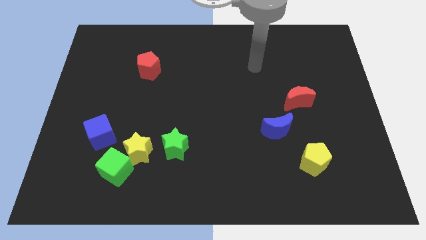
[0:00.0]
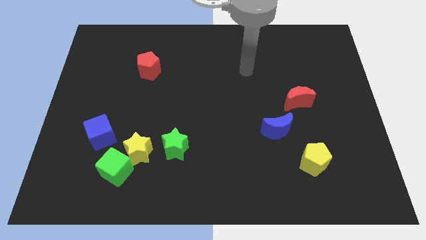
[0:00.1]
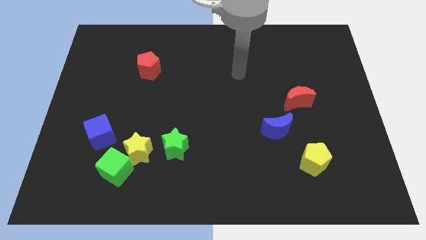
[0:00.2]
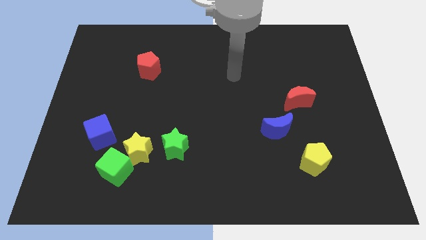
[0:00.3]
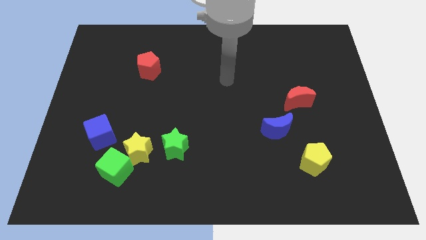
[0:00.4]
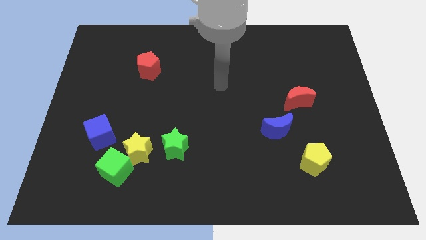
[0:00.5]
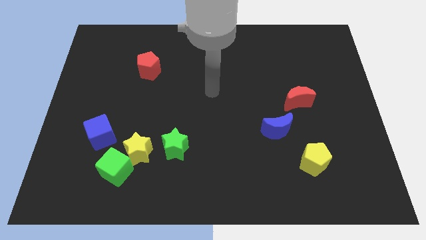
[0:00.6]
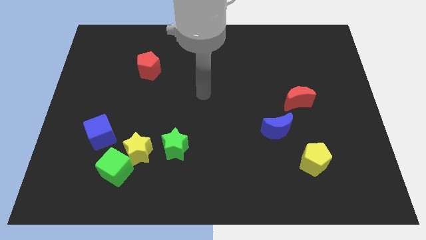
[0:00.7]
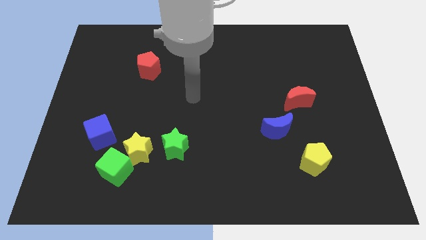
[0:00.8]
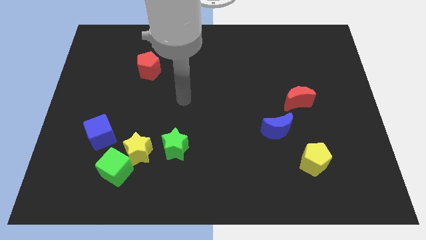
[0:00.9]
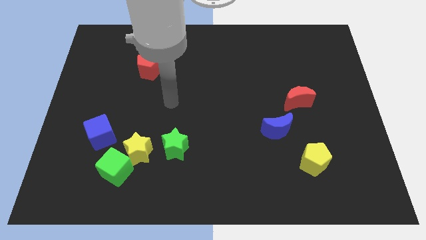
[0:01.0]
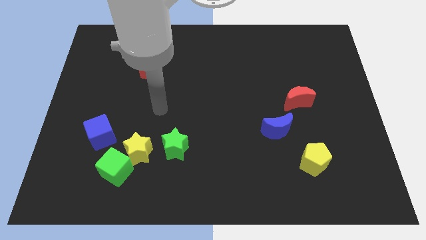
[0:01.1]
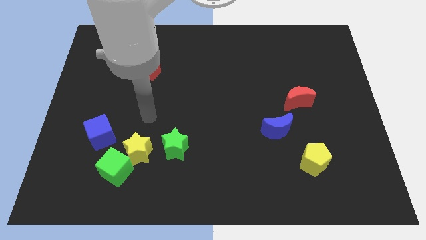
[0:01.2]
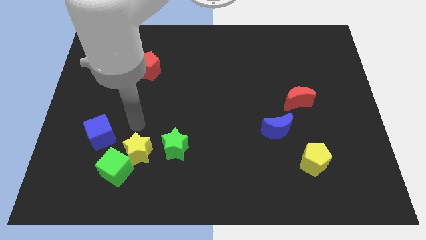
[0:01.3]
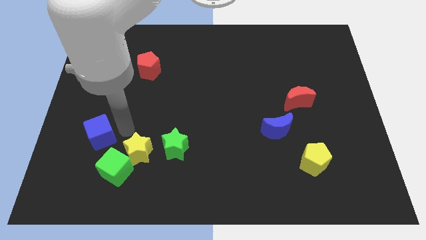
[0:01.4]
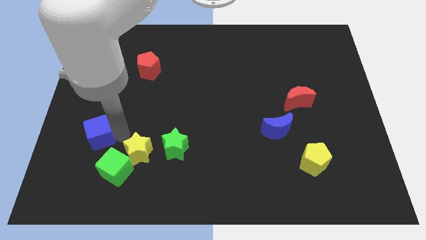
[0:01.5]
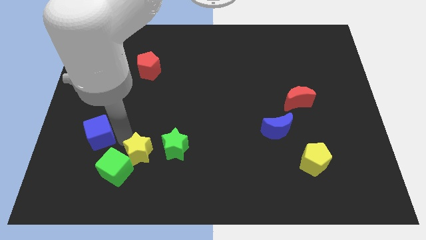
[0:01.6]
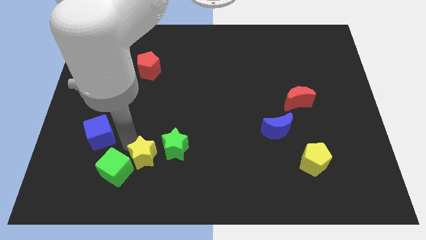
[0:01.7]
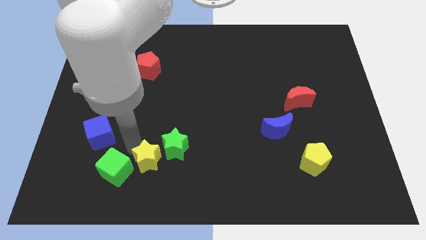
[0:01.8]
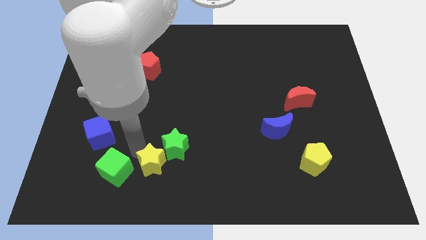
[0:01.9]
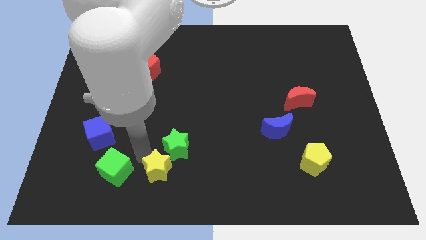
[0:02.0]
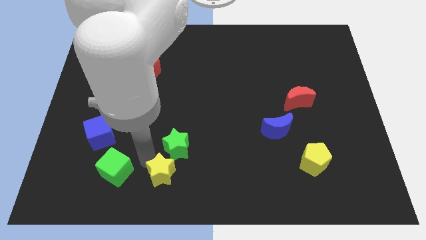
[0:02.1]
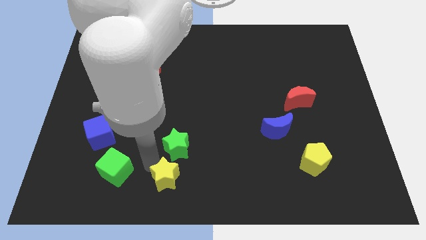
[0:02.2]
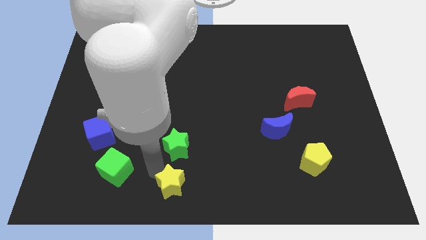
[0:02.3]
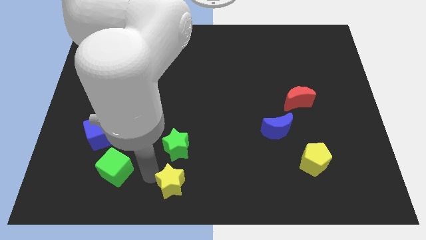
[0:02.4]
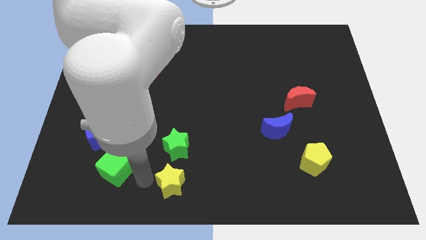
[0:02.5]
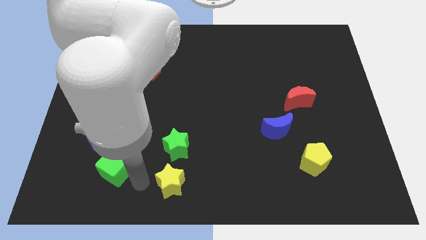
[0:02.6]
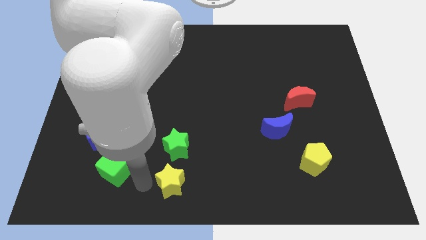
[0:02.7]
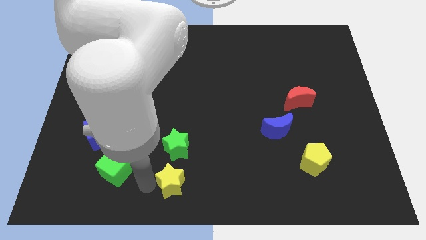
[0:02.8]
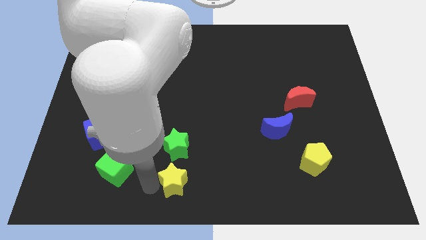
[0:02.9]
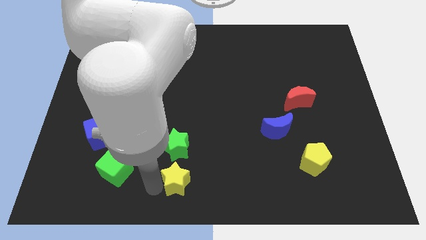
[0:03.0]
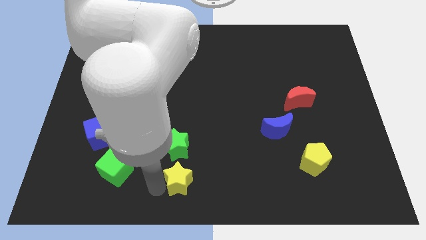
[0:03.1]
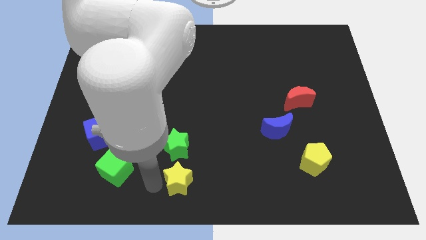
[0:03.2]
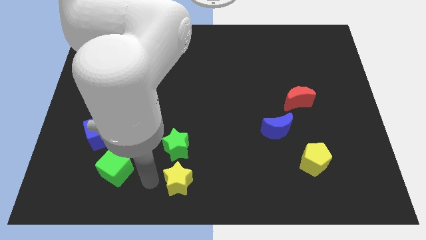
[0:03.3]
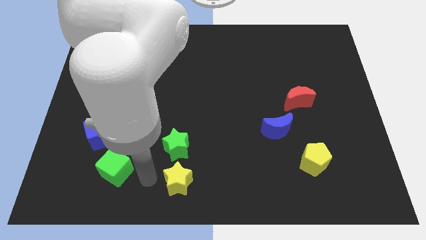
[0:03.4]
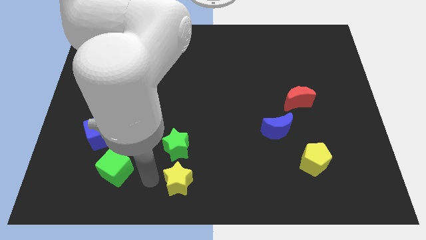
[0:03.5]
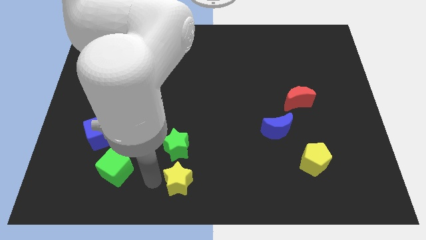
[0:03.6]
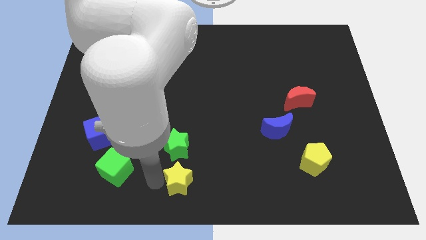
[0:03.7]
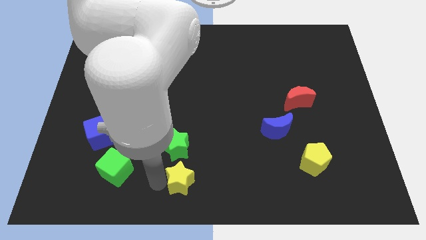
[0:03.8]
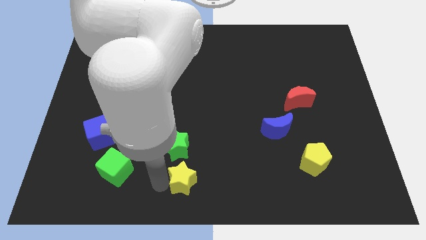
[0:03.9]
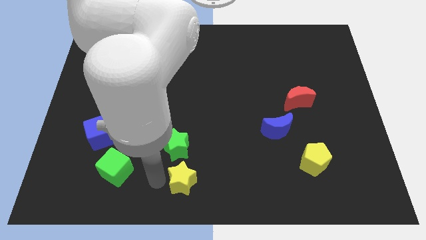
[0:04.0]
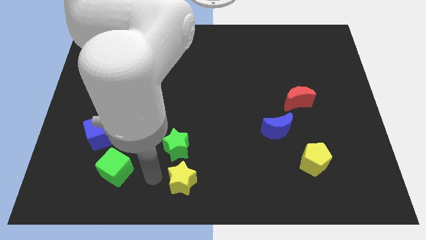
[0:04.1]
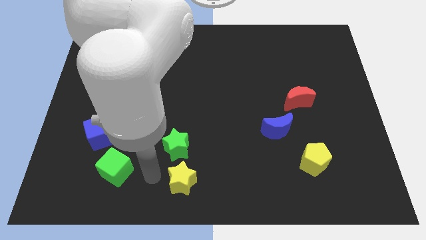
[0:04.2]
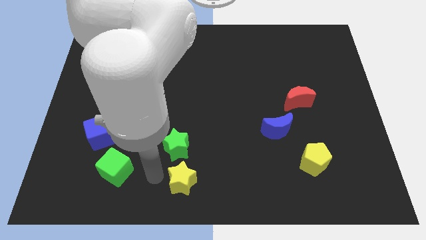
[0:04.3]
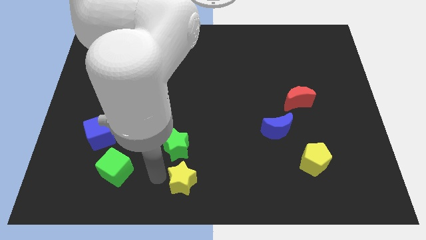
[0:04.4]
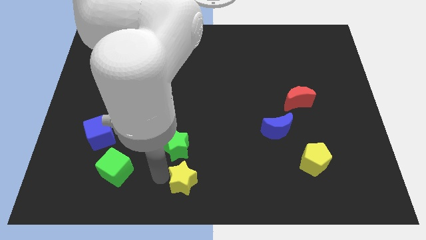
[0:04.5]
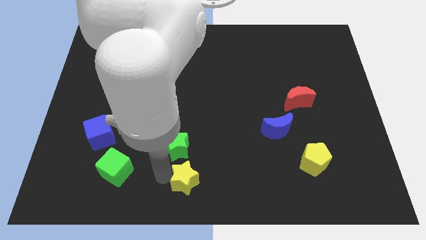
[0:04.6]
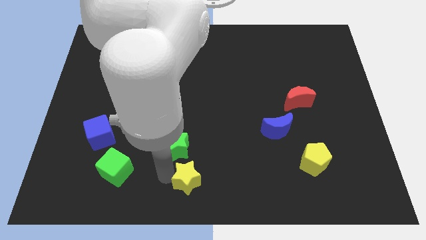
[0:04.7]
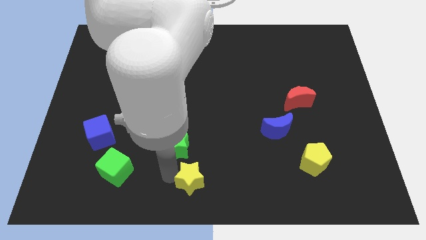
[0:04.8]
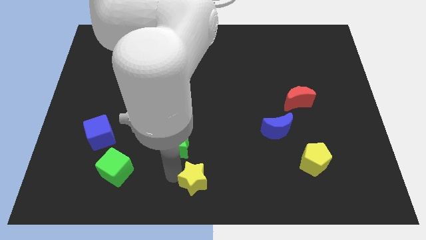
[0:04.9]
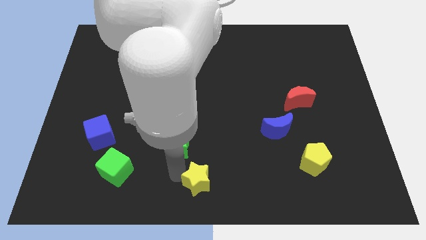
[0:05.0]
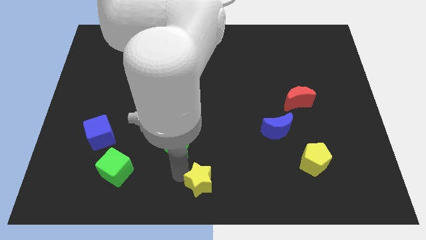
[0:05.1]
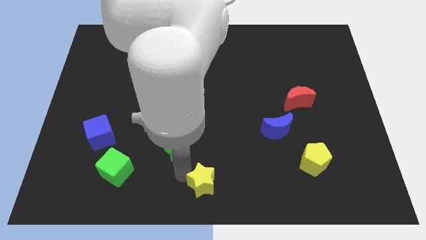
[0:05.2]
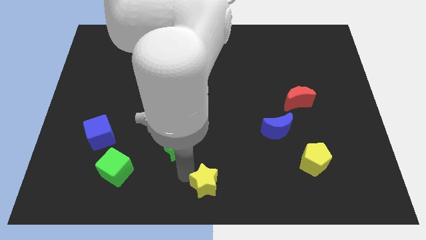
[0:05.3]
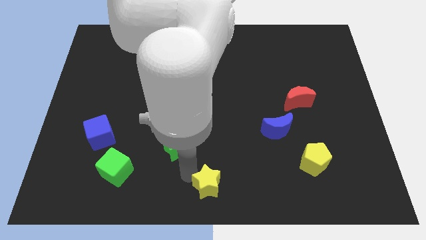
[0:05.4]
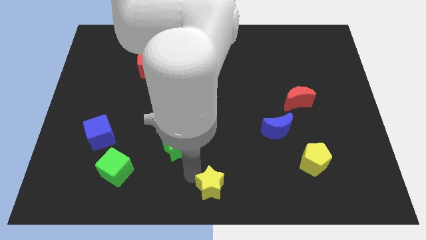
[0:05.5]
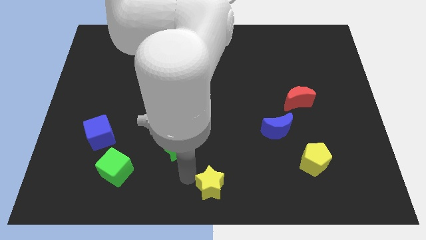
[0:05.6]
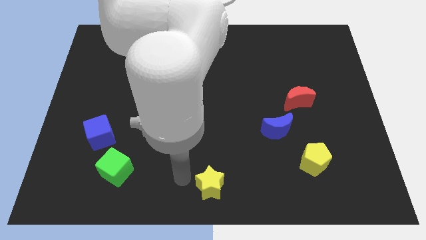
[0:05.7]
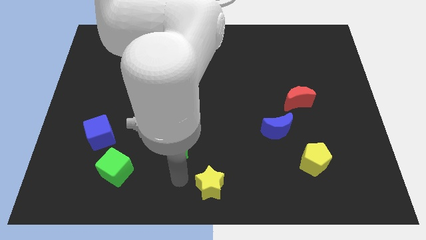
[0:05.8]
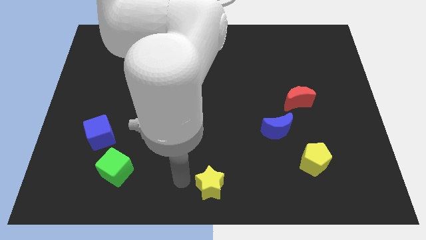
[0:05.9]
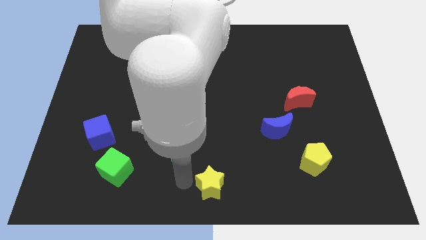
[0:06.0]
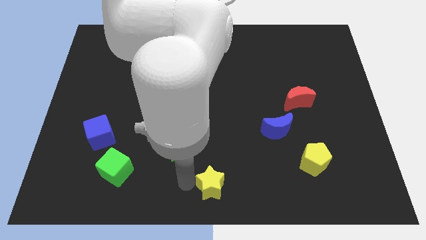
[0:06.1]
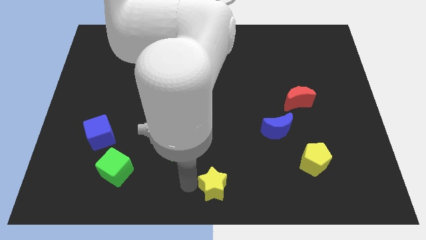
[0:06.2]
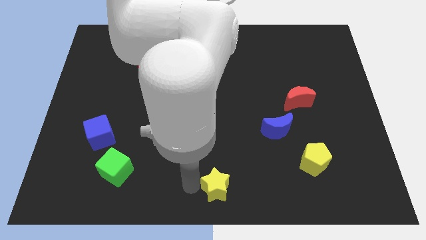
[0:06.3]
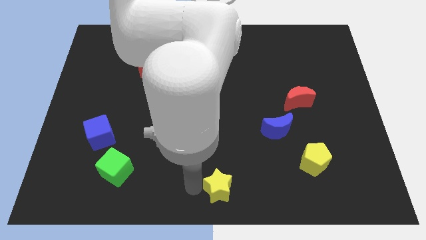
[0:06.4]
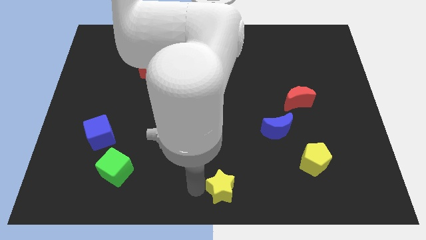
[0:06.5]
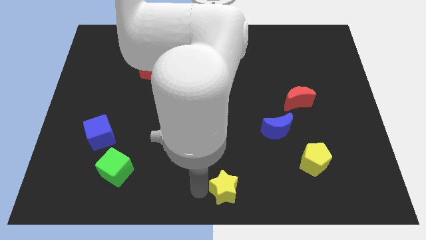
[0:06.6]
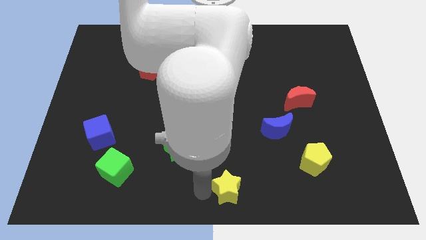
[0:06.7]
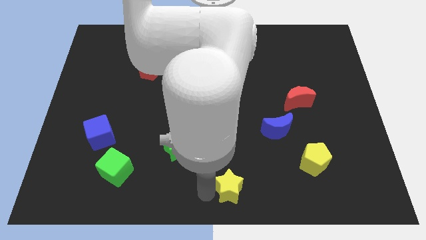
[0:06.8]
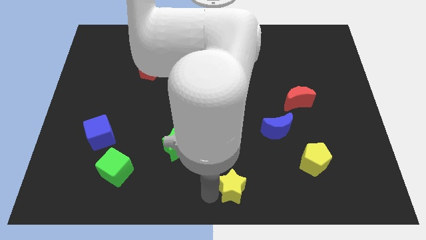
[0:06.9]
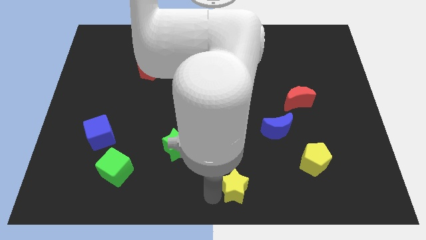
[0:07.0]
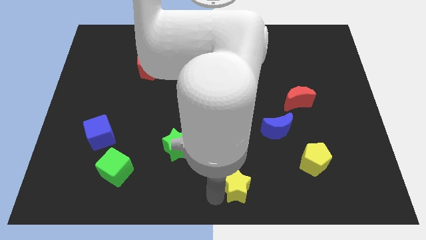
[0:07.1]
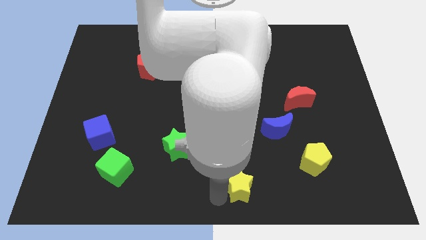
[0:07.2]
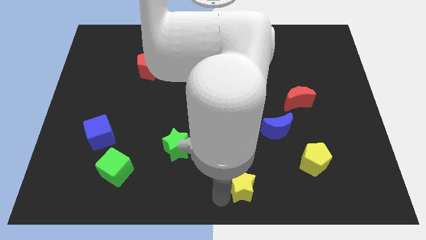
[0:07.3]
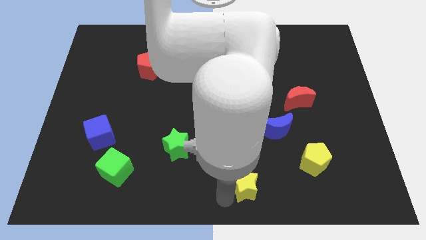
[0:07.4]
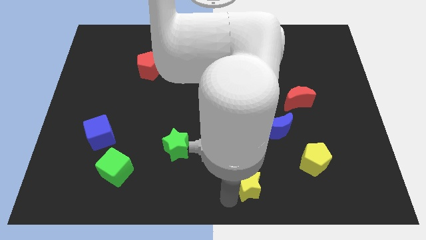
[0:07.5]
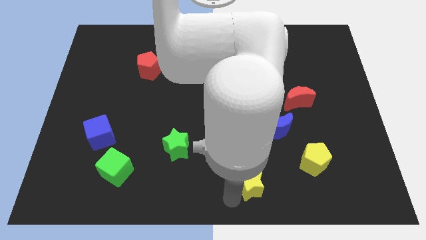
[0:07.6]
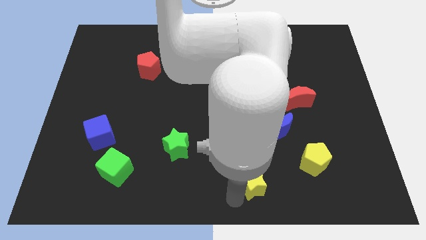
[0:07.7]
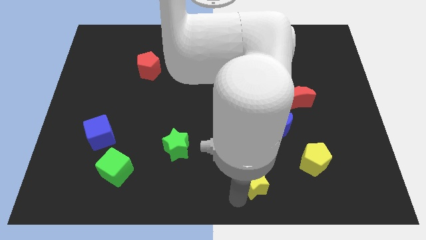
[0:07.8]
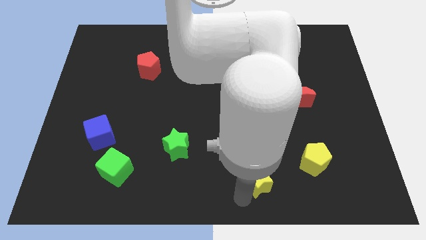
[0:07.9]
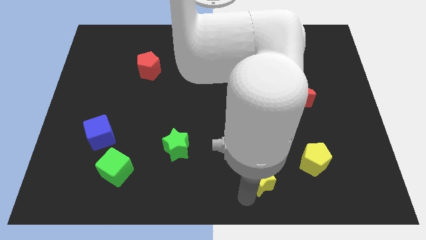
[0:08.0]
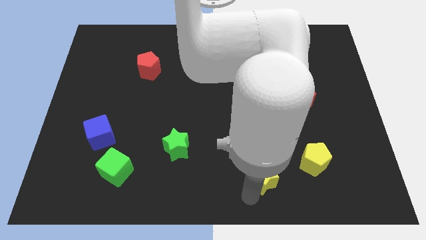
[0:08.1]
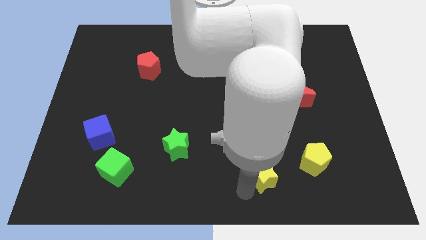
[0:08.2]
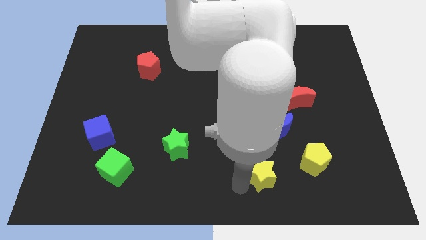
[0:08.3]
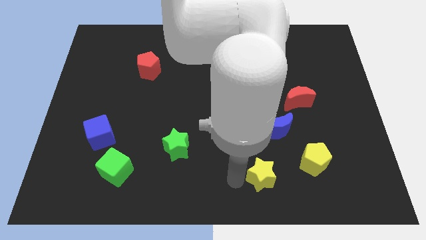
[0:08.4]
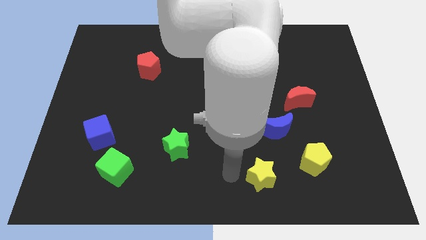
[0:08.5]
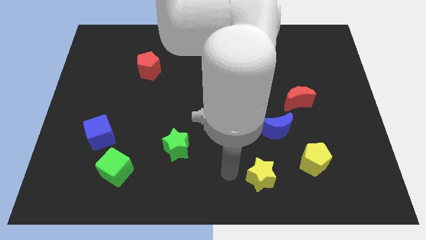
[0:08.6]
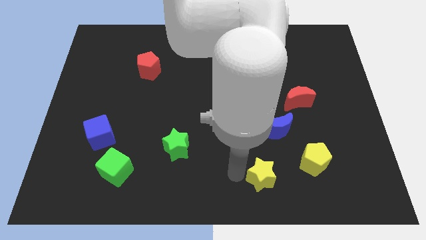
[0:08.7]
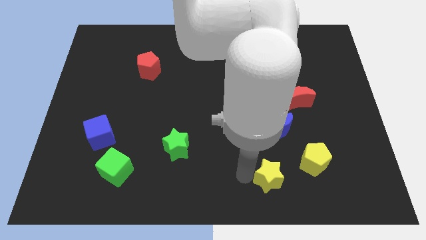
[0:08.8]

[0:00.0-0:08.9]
put the yellow star to the bottom left of the yellow pentagon
